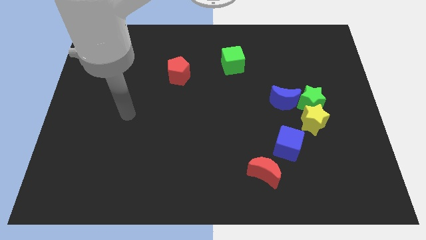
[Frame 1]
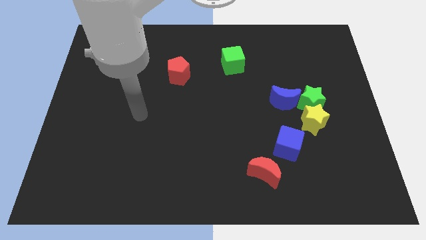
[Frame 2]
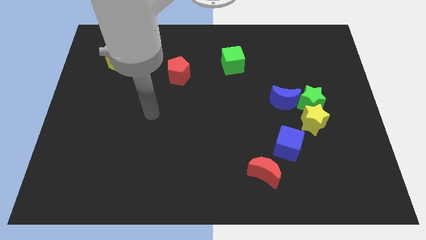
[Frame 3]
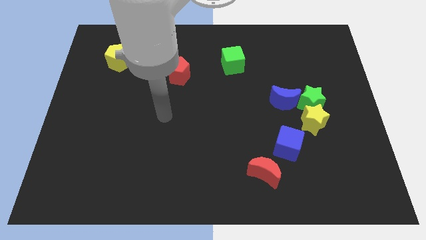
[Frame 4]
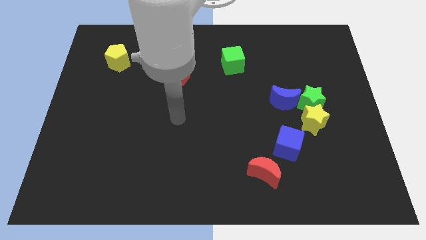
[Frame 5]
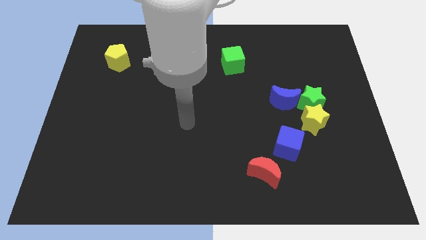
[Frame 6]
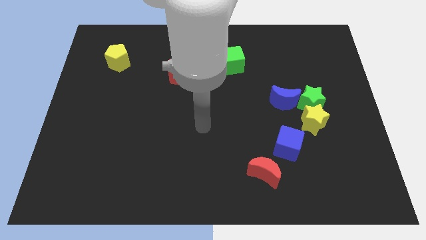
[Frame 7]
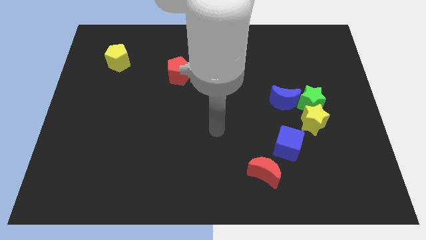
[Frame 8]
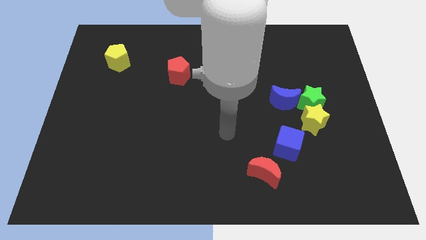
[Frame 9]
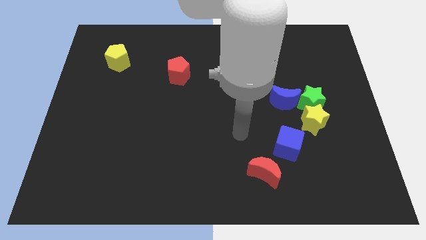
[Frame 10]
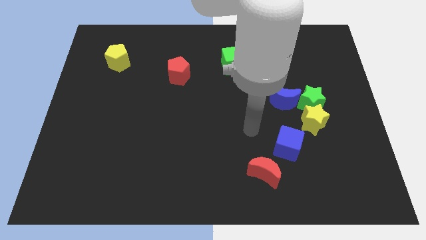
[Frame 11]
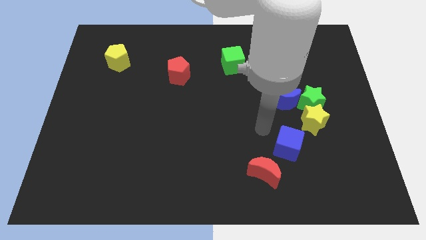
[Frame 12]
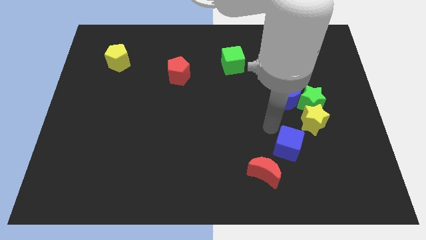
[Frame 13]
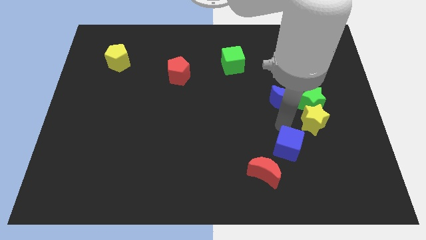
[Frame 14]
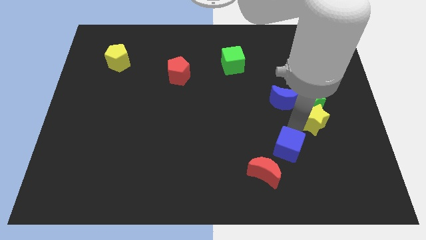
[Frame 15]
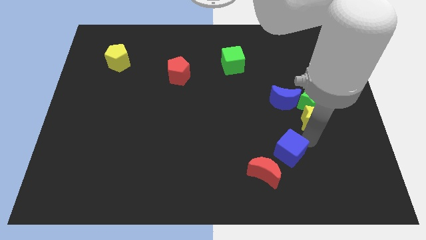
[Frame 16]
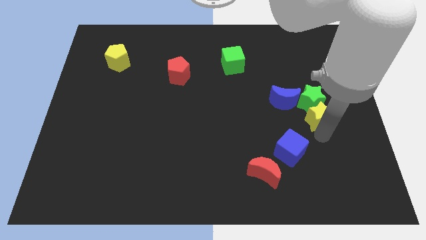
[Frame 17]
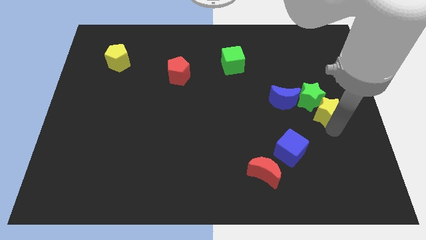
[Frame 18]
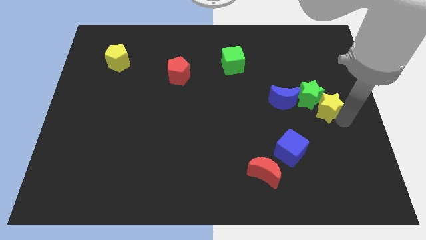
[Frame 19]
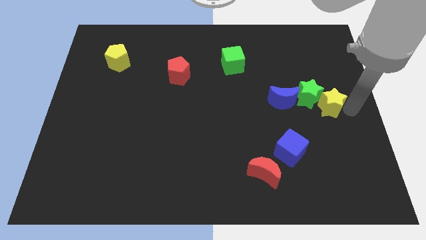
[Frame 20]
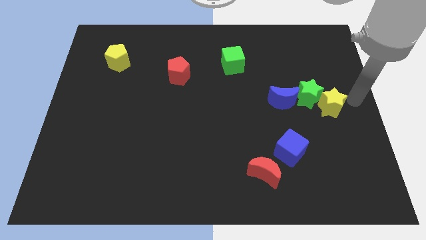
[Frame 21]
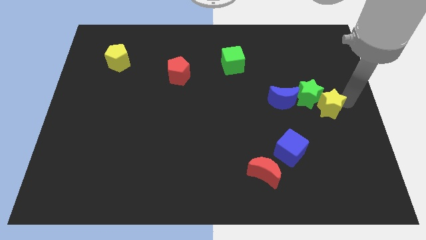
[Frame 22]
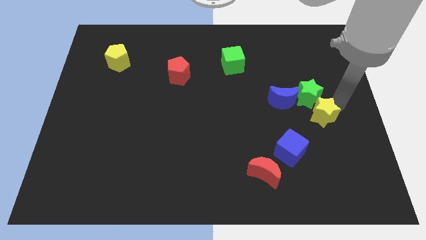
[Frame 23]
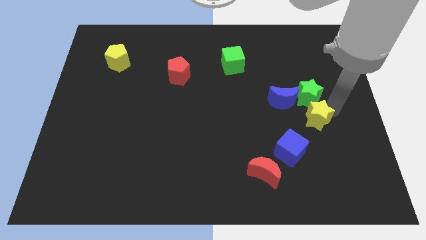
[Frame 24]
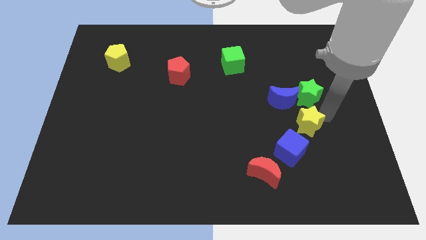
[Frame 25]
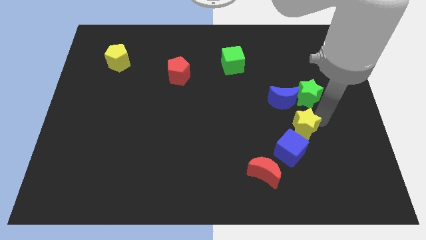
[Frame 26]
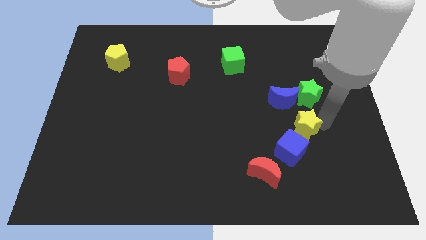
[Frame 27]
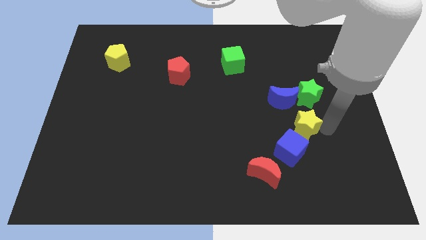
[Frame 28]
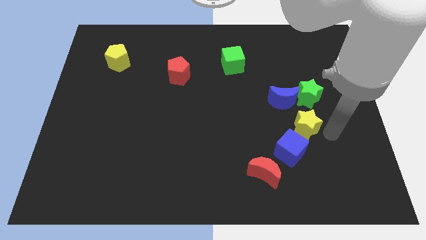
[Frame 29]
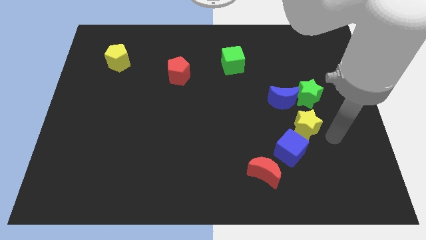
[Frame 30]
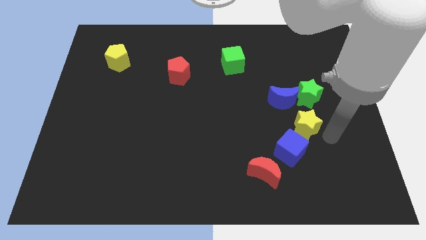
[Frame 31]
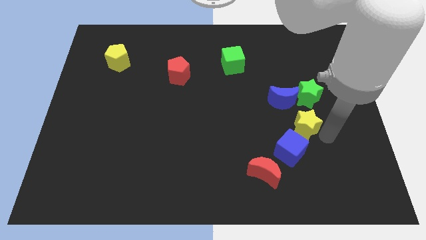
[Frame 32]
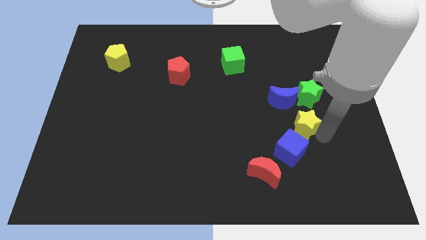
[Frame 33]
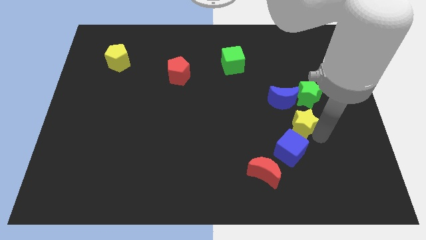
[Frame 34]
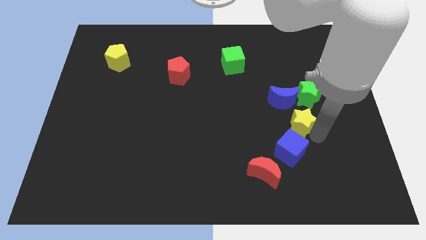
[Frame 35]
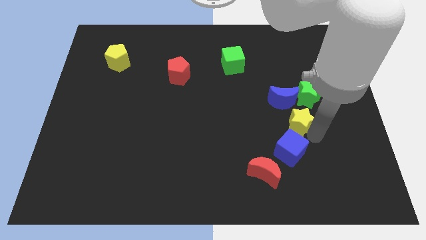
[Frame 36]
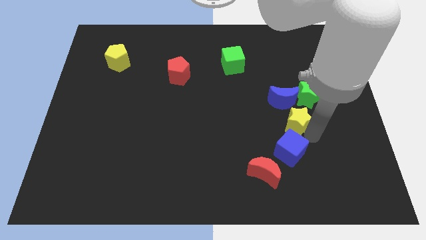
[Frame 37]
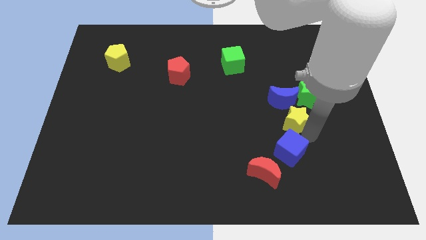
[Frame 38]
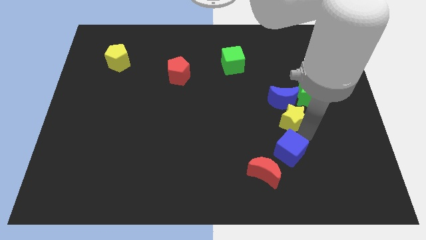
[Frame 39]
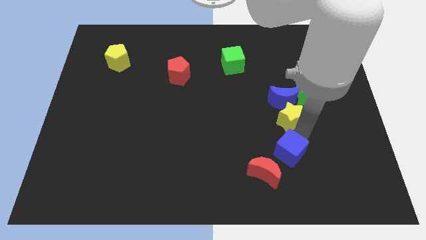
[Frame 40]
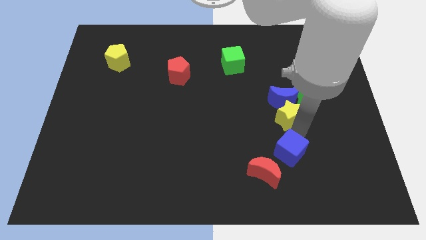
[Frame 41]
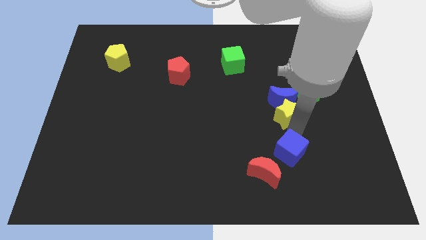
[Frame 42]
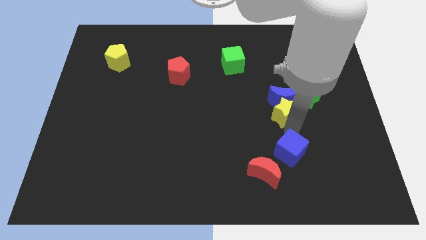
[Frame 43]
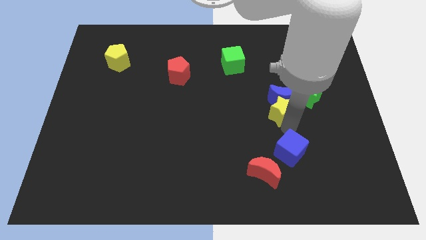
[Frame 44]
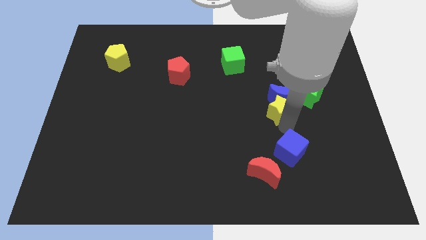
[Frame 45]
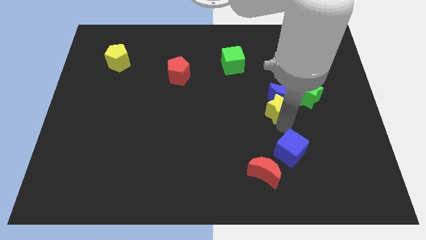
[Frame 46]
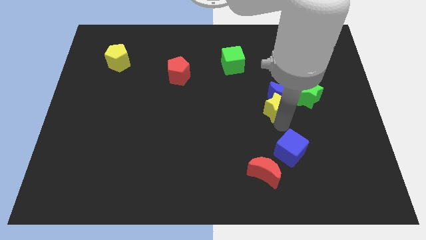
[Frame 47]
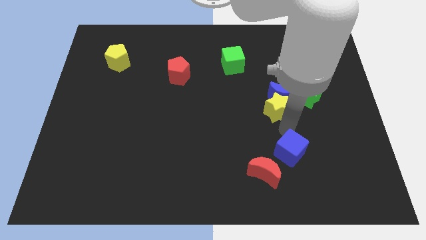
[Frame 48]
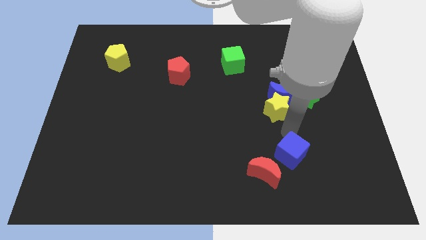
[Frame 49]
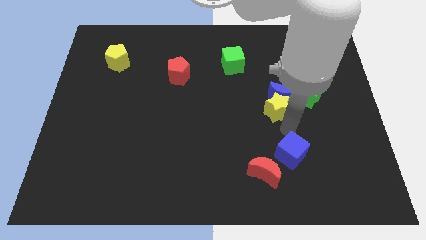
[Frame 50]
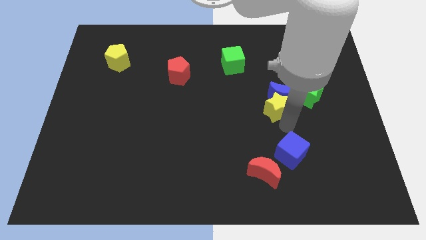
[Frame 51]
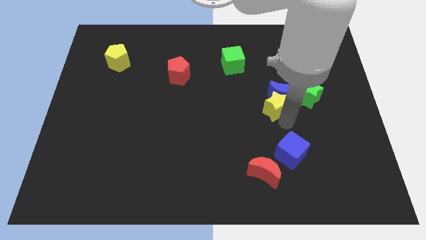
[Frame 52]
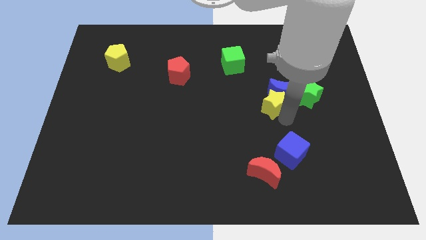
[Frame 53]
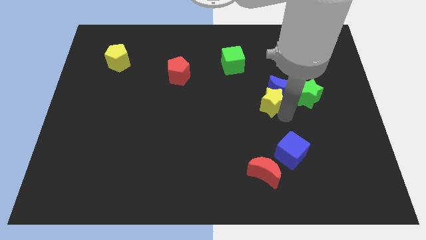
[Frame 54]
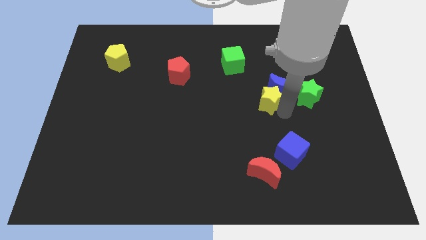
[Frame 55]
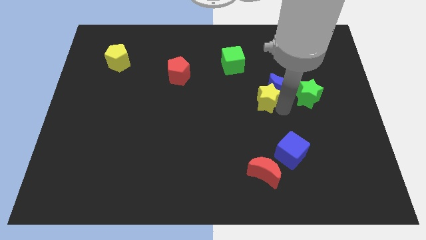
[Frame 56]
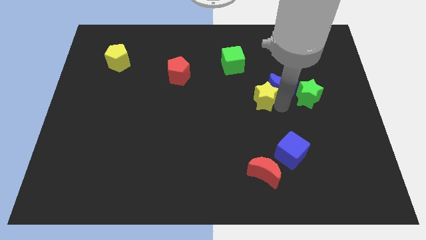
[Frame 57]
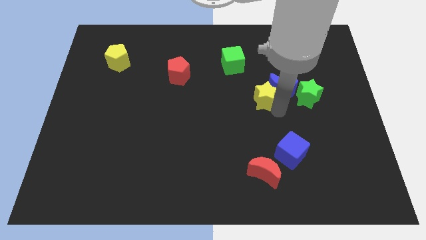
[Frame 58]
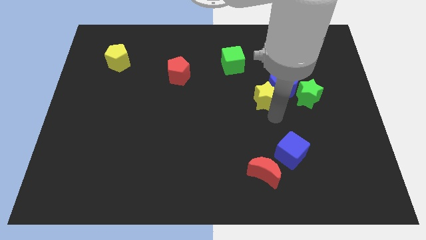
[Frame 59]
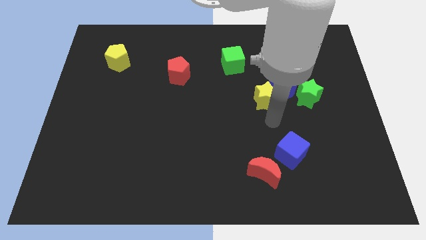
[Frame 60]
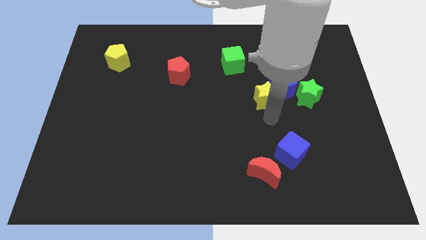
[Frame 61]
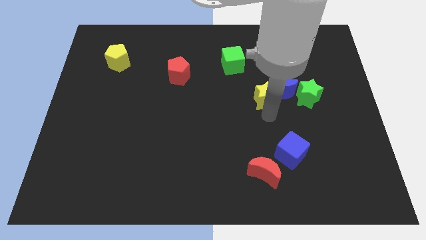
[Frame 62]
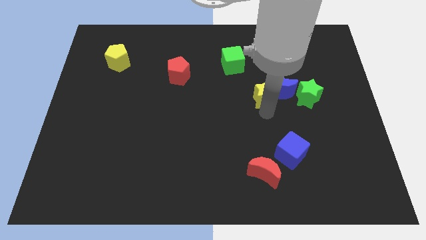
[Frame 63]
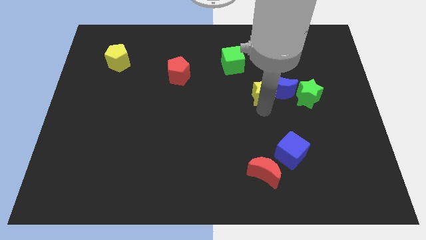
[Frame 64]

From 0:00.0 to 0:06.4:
put the yellow star to the top left of the blue moon
